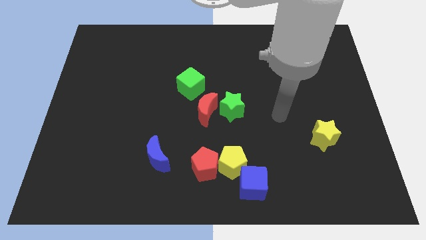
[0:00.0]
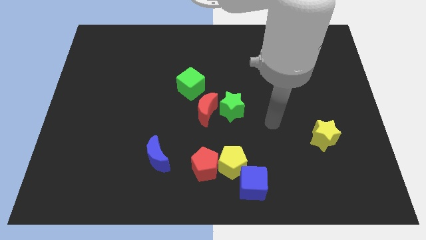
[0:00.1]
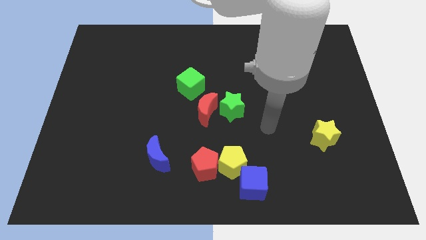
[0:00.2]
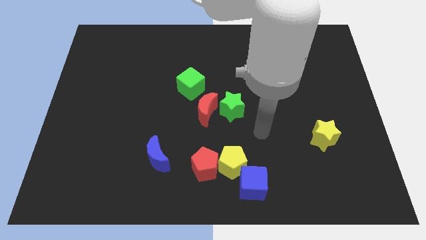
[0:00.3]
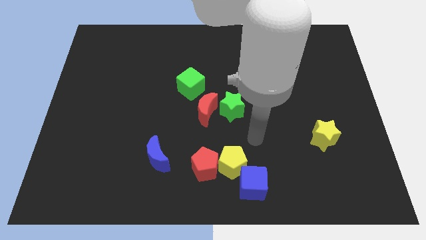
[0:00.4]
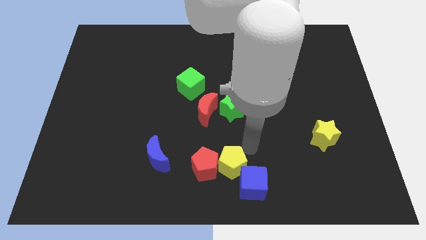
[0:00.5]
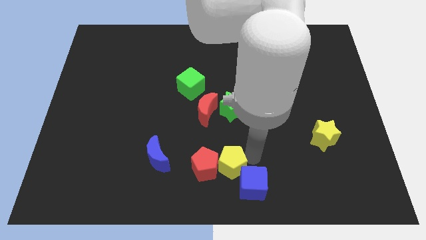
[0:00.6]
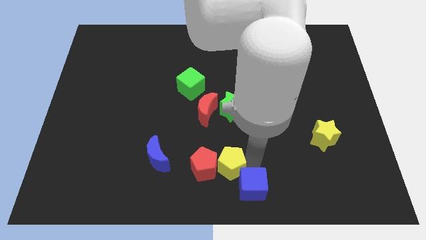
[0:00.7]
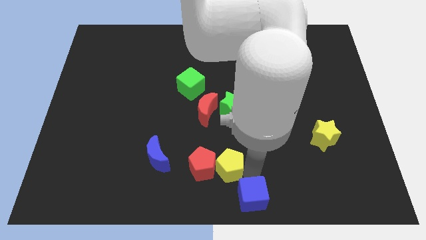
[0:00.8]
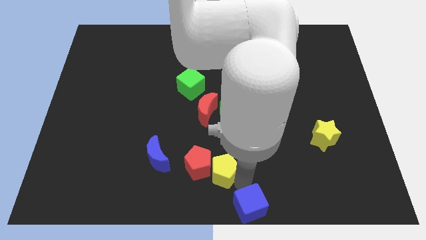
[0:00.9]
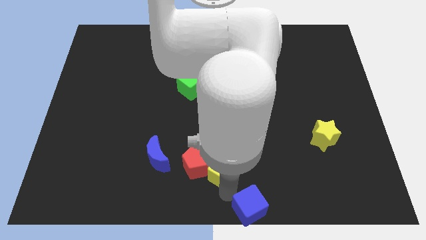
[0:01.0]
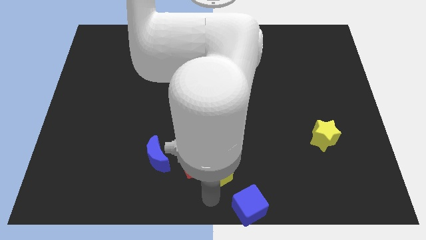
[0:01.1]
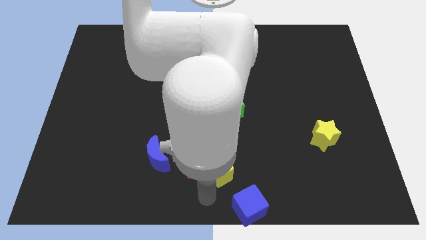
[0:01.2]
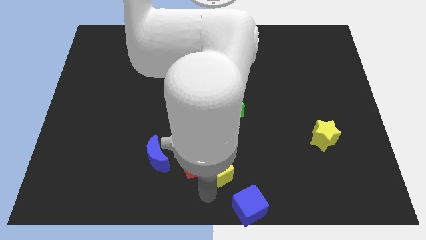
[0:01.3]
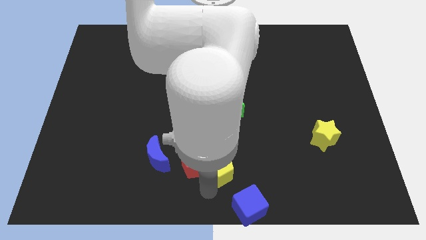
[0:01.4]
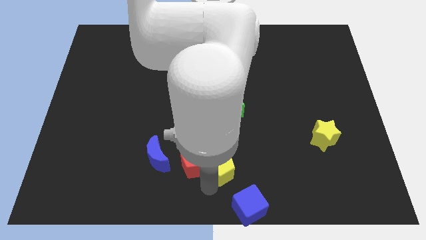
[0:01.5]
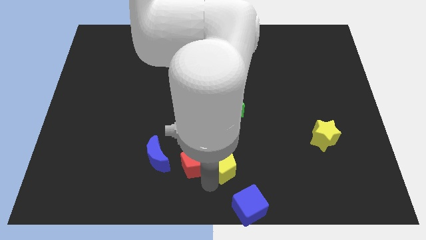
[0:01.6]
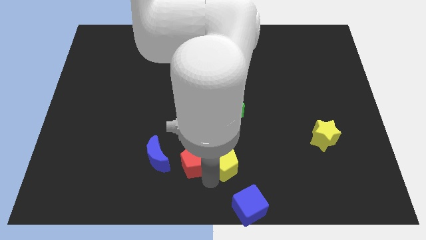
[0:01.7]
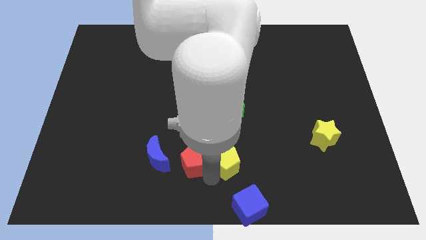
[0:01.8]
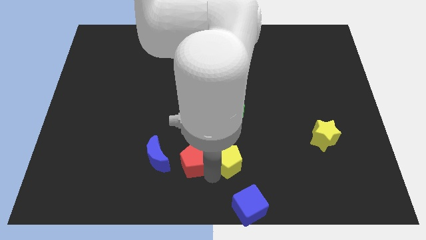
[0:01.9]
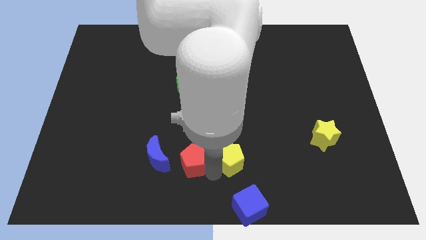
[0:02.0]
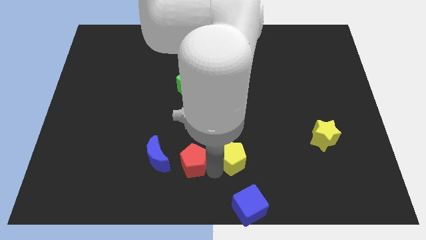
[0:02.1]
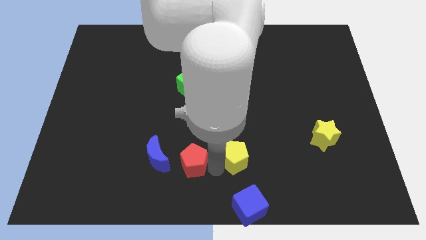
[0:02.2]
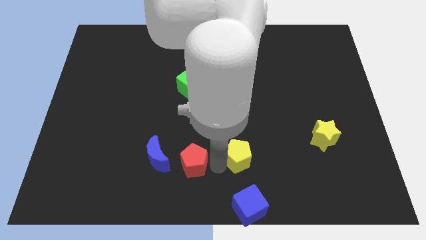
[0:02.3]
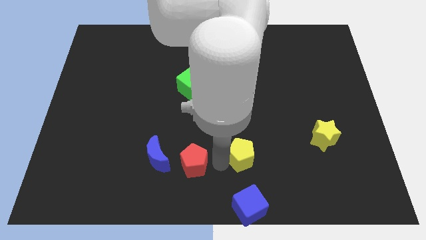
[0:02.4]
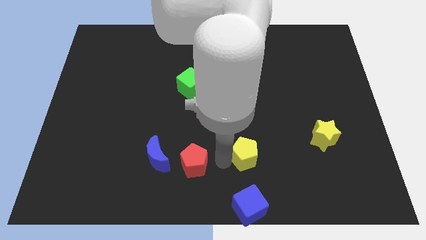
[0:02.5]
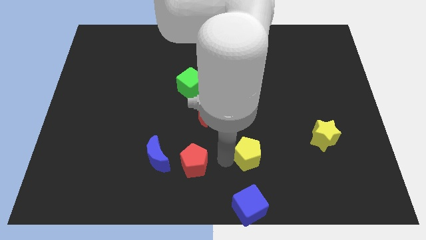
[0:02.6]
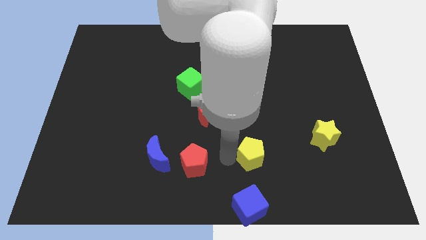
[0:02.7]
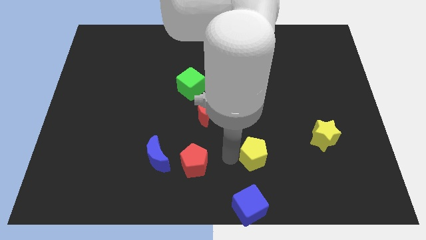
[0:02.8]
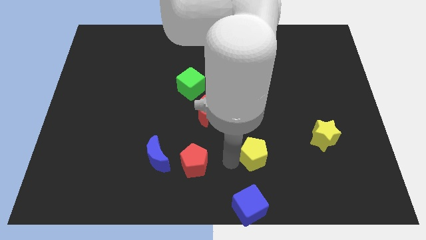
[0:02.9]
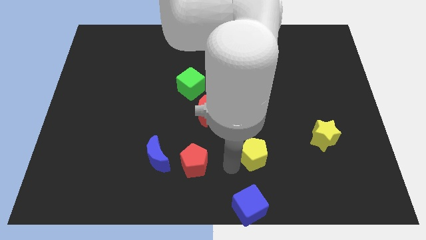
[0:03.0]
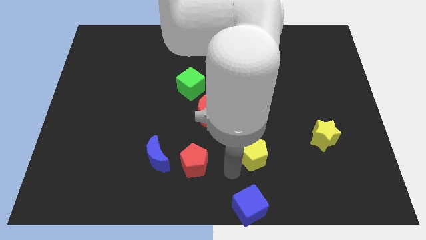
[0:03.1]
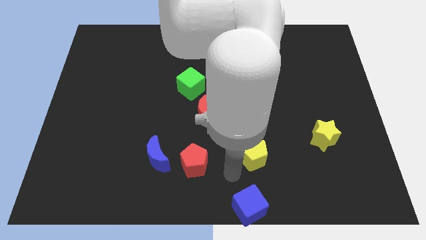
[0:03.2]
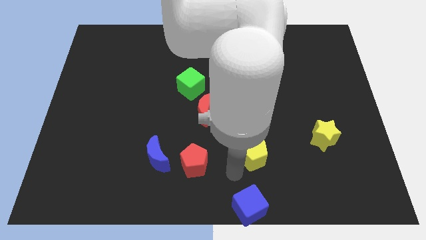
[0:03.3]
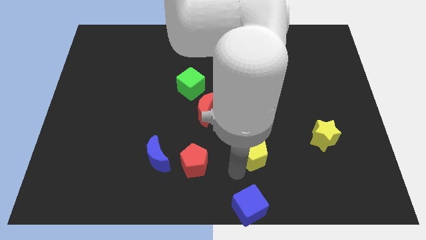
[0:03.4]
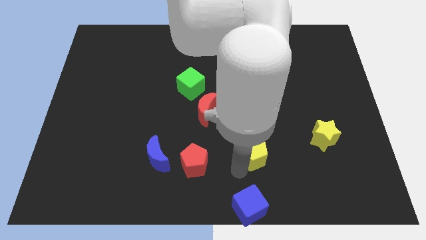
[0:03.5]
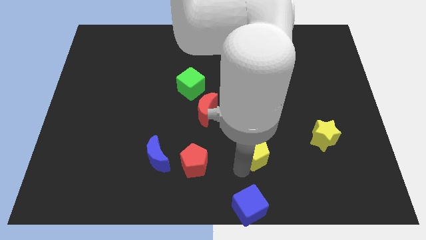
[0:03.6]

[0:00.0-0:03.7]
separate the yellow pentagon from the red pentagon and blue cube

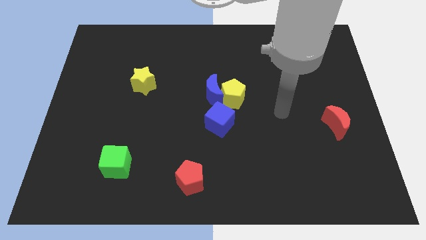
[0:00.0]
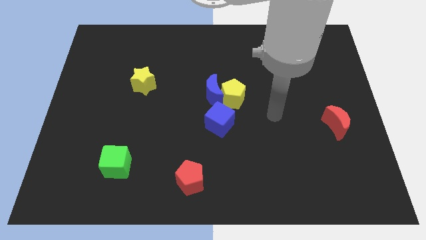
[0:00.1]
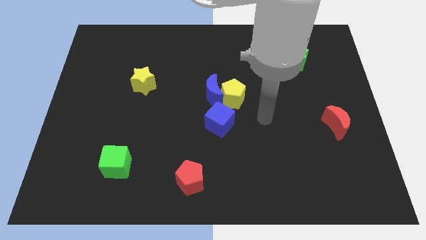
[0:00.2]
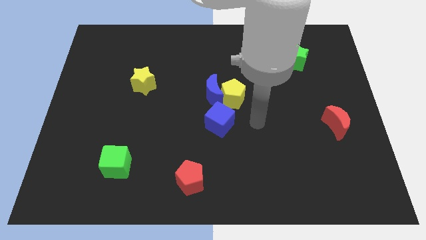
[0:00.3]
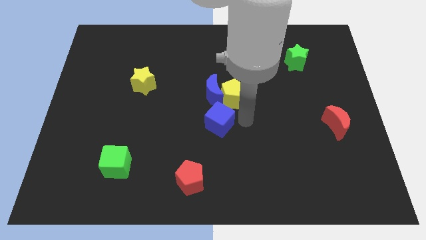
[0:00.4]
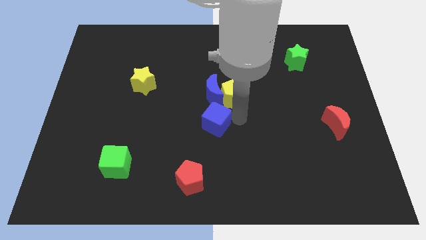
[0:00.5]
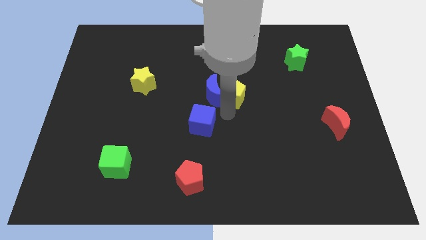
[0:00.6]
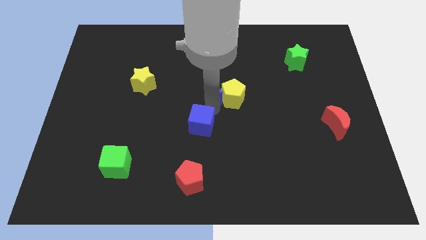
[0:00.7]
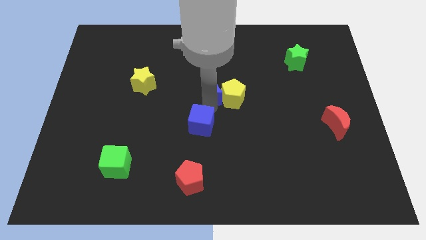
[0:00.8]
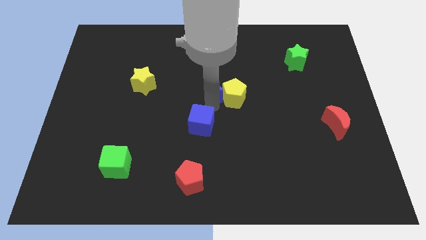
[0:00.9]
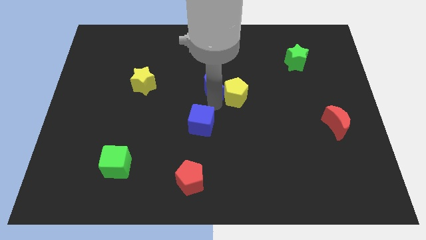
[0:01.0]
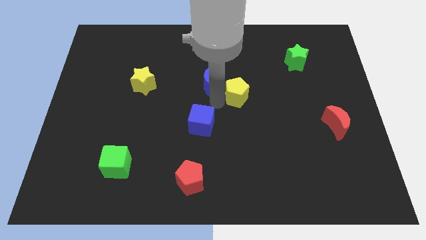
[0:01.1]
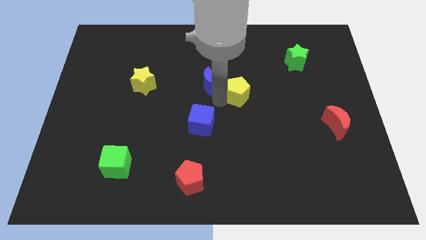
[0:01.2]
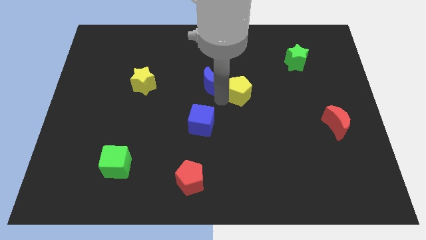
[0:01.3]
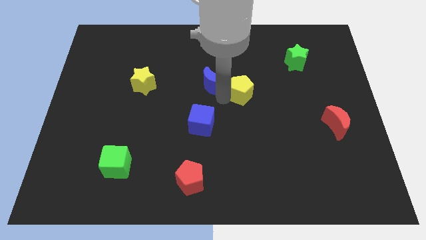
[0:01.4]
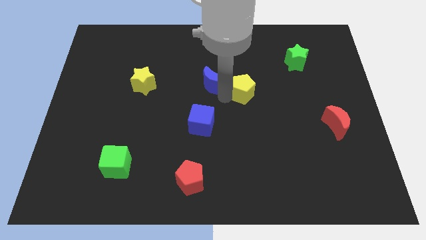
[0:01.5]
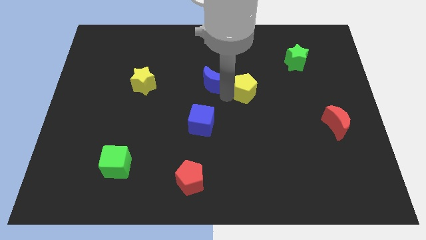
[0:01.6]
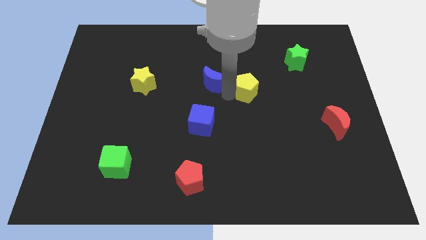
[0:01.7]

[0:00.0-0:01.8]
separate the yellow pentagon from the blue moon and blue cube

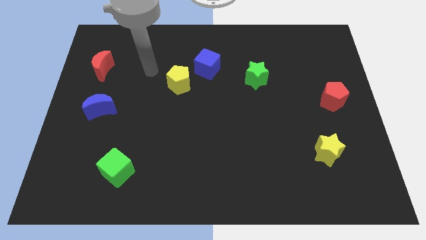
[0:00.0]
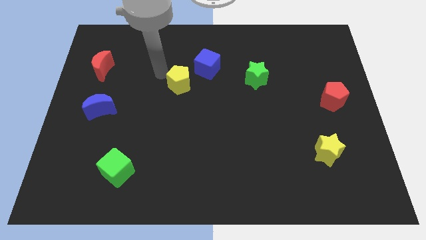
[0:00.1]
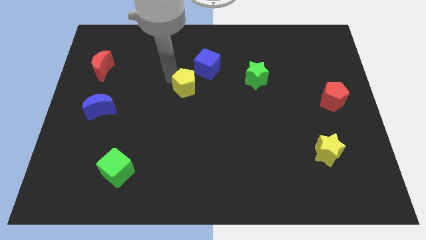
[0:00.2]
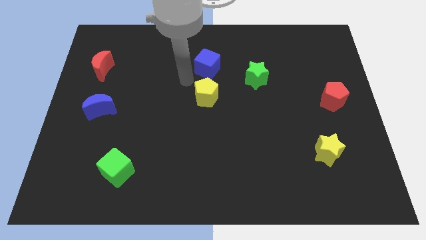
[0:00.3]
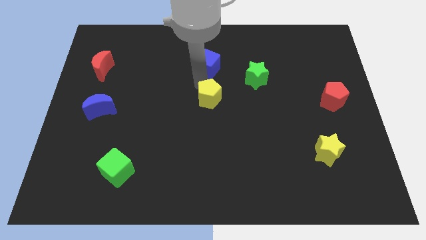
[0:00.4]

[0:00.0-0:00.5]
separate the blue cube from the yellow pentagon

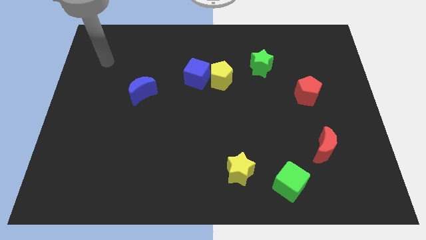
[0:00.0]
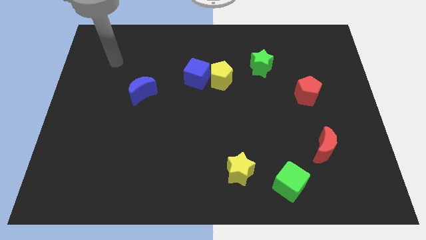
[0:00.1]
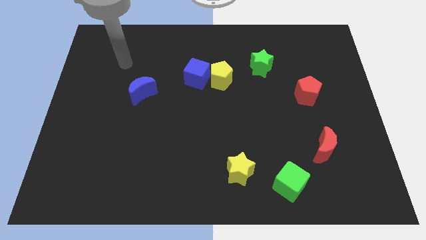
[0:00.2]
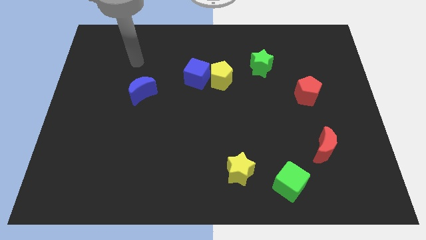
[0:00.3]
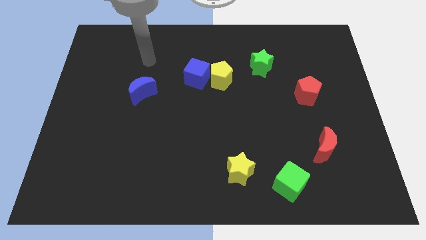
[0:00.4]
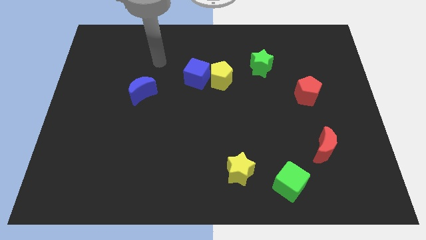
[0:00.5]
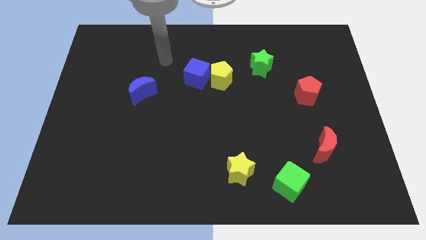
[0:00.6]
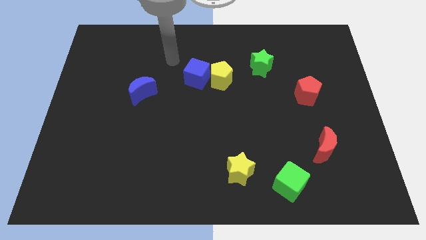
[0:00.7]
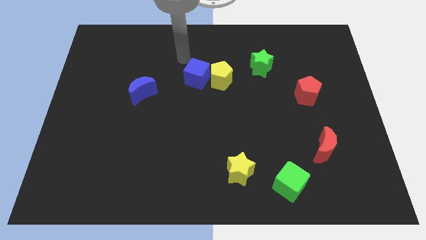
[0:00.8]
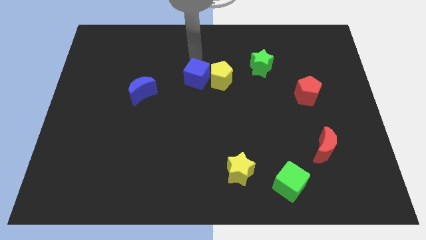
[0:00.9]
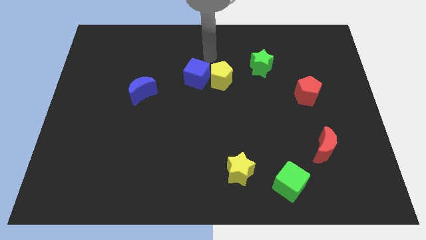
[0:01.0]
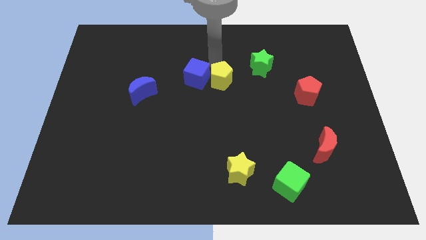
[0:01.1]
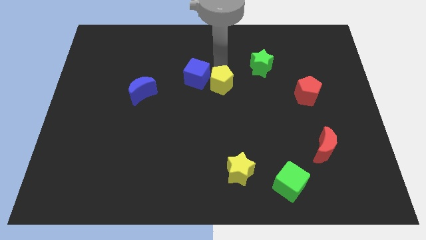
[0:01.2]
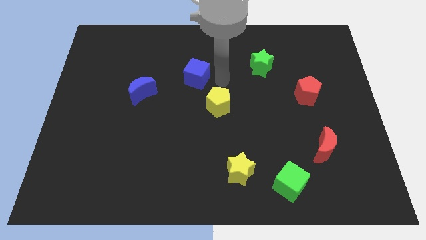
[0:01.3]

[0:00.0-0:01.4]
move the blue cube away from the yellow pentagon

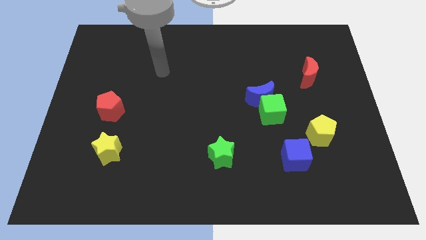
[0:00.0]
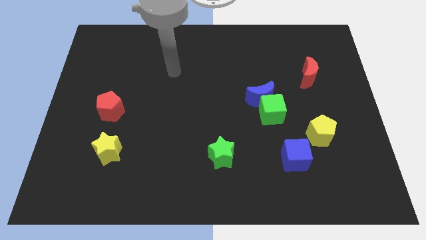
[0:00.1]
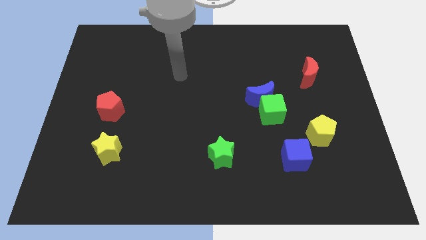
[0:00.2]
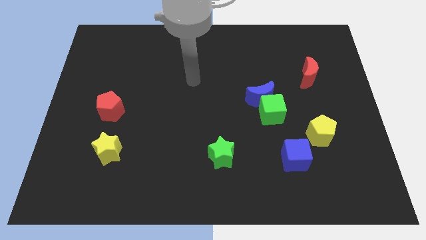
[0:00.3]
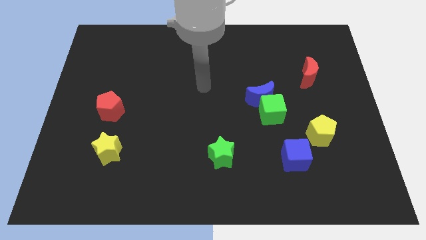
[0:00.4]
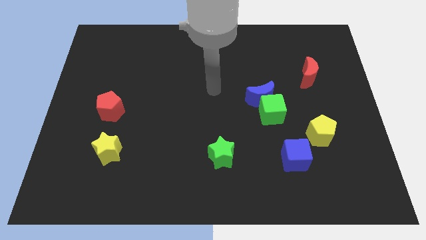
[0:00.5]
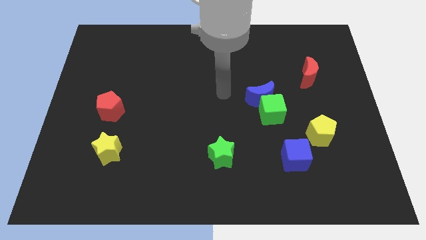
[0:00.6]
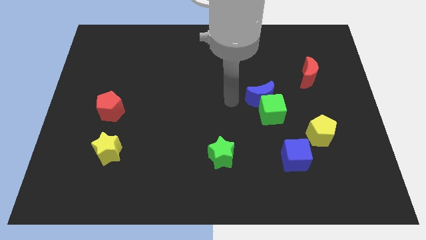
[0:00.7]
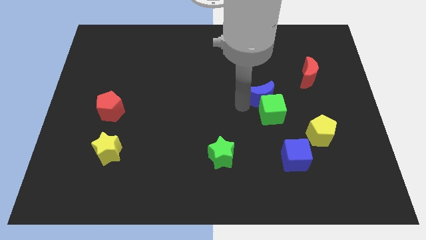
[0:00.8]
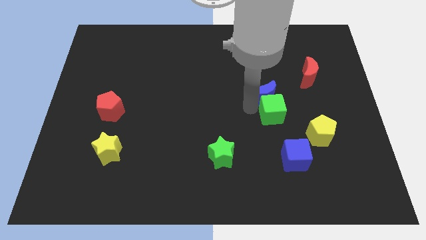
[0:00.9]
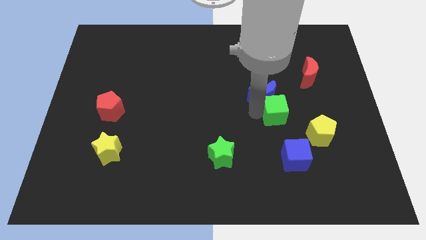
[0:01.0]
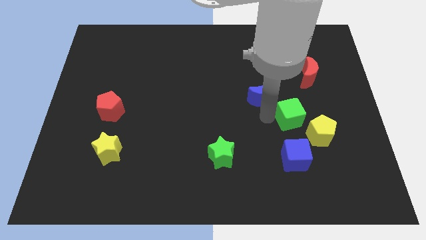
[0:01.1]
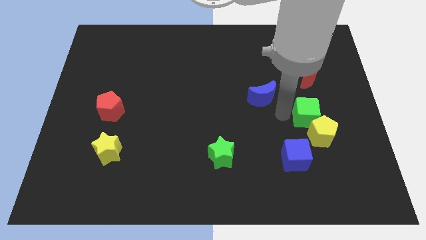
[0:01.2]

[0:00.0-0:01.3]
pull the blue moon apart from the green cube

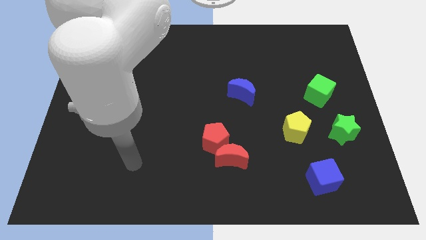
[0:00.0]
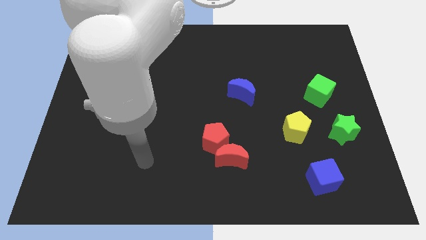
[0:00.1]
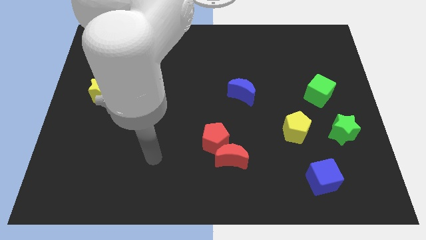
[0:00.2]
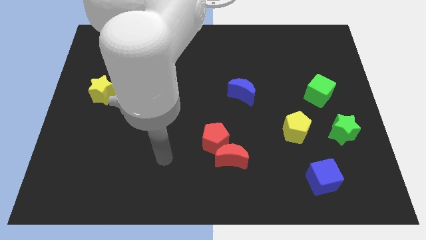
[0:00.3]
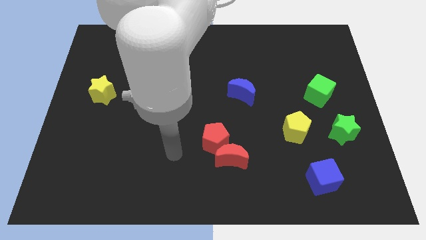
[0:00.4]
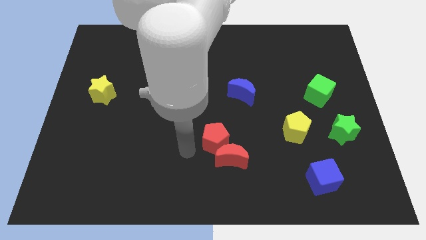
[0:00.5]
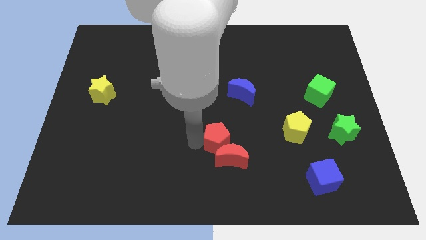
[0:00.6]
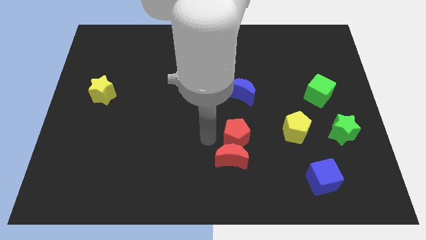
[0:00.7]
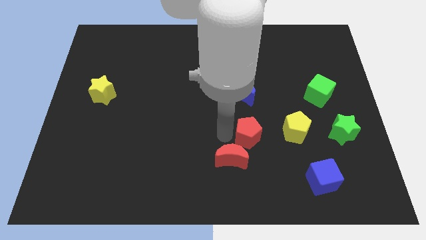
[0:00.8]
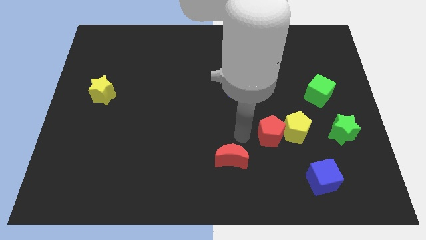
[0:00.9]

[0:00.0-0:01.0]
pull the red moon apart from the red pentagon
